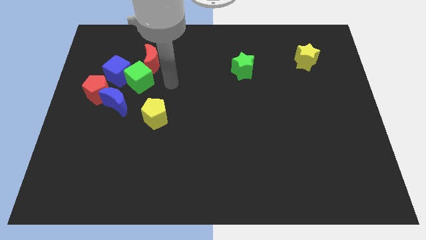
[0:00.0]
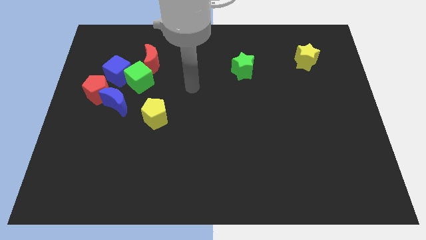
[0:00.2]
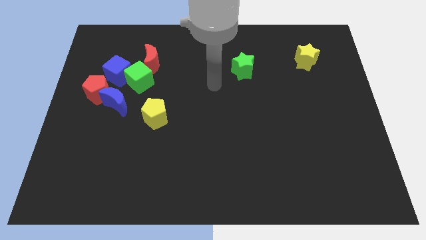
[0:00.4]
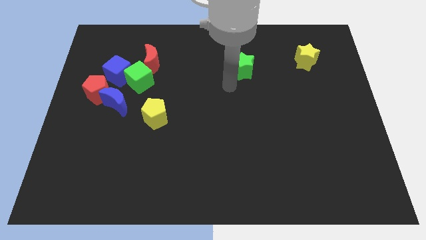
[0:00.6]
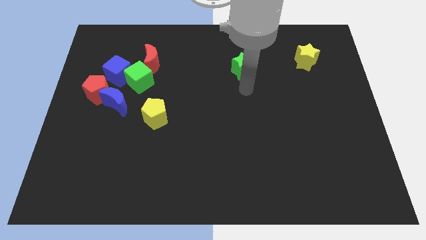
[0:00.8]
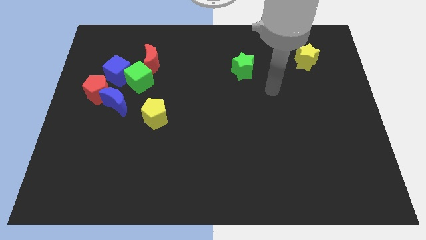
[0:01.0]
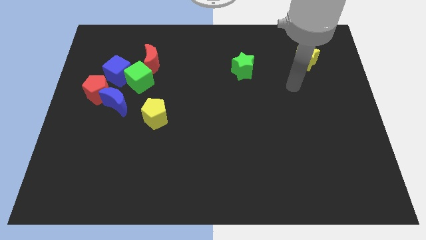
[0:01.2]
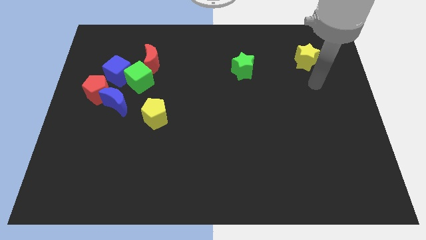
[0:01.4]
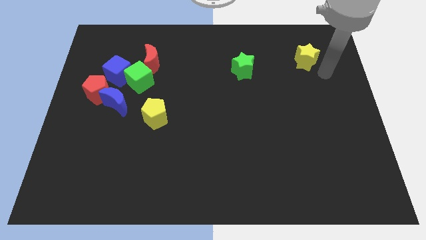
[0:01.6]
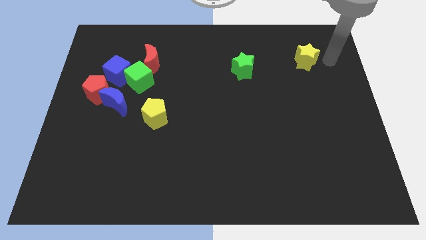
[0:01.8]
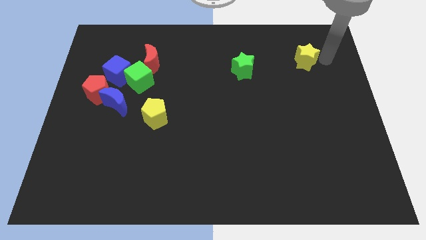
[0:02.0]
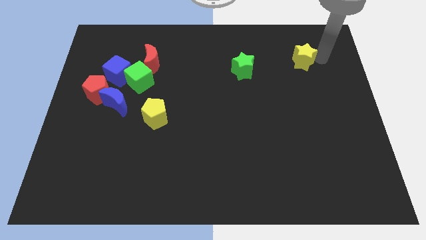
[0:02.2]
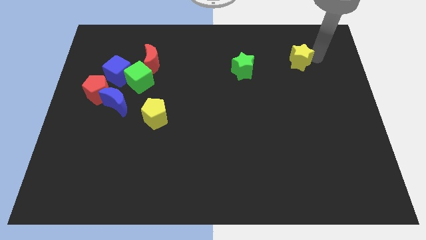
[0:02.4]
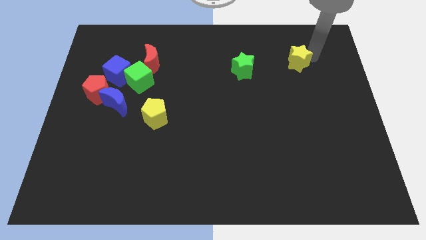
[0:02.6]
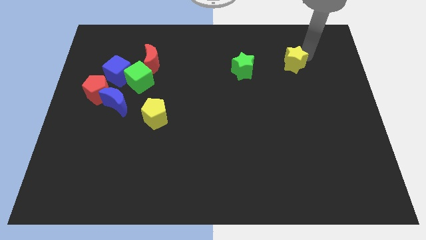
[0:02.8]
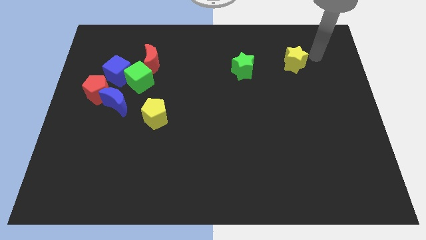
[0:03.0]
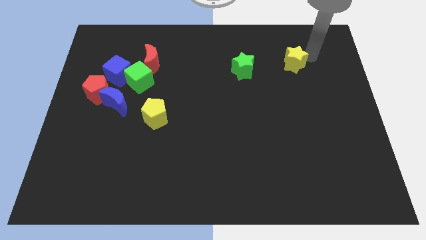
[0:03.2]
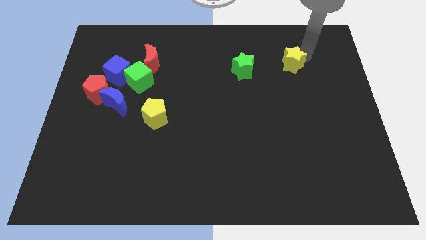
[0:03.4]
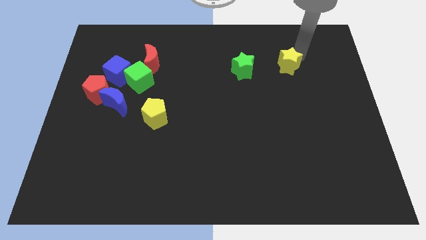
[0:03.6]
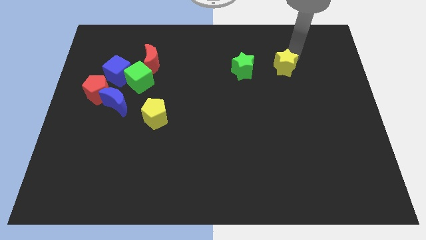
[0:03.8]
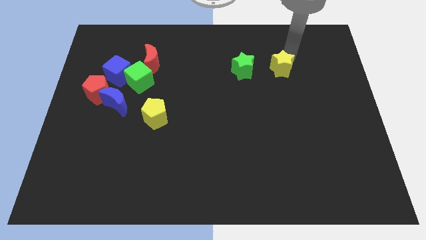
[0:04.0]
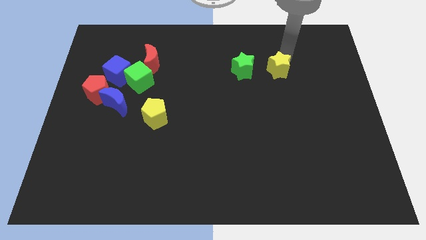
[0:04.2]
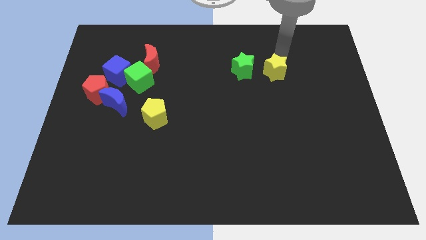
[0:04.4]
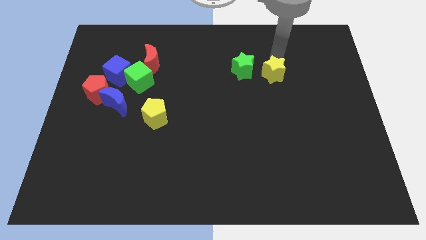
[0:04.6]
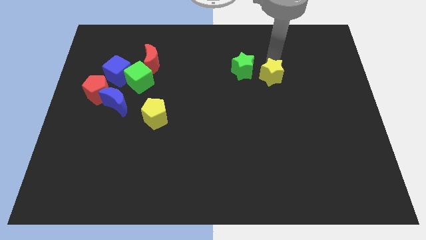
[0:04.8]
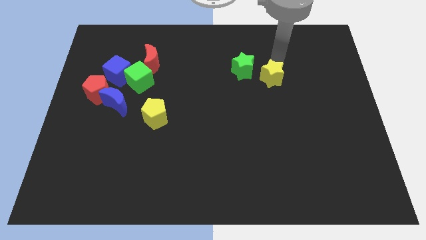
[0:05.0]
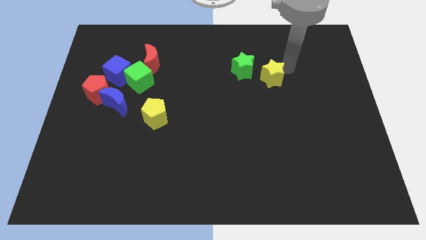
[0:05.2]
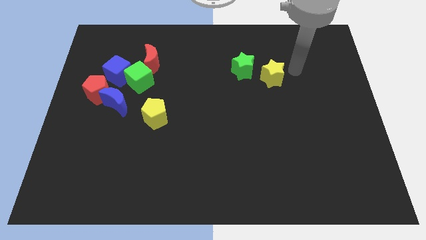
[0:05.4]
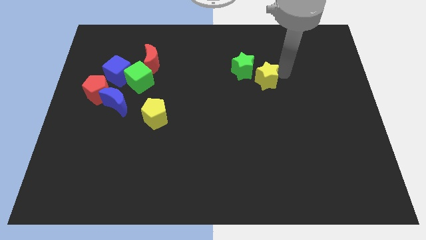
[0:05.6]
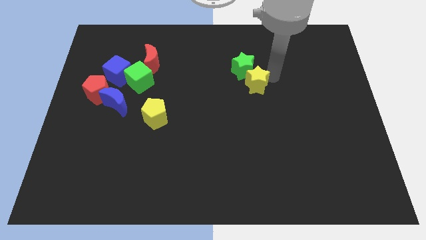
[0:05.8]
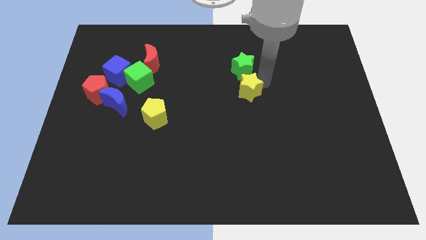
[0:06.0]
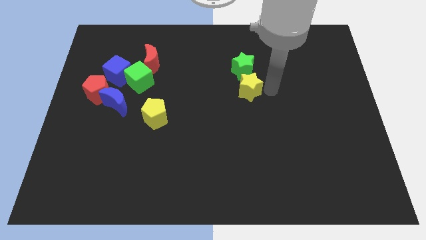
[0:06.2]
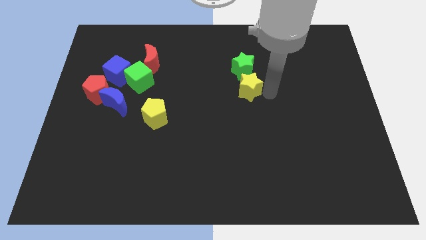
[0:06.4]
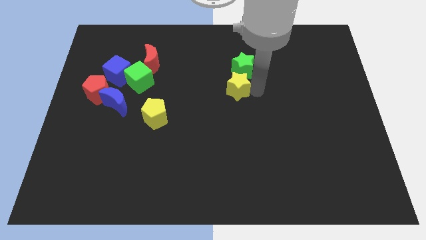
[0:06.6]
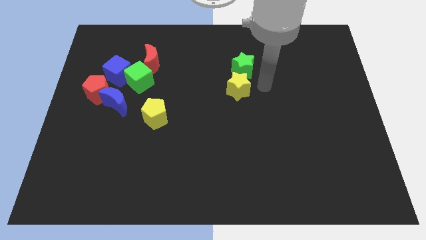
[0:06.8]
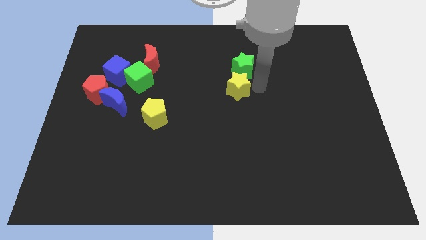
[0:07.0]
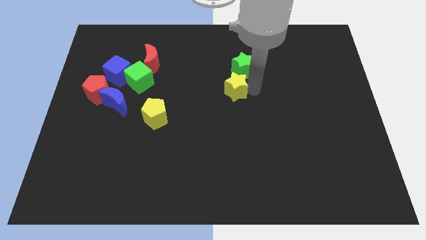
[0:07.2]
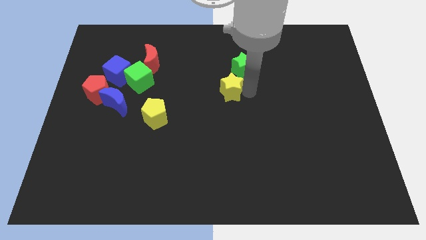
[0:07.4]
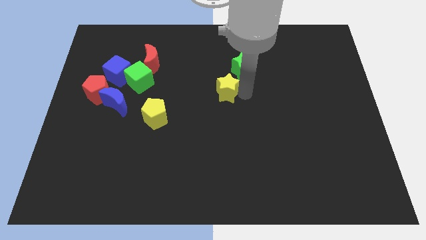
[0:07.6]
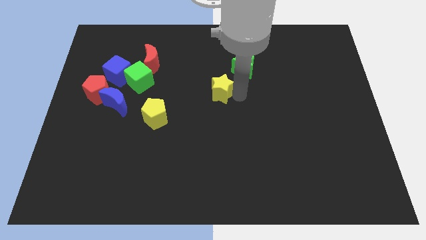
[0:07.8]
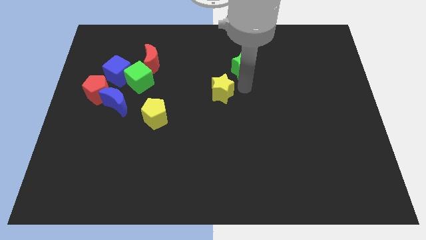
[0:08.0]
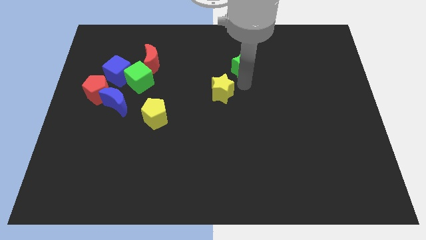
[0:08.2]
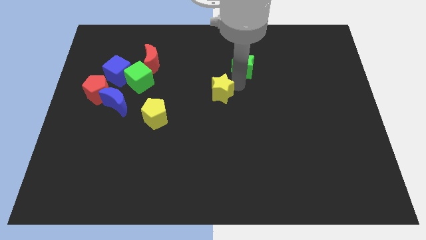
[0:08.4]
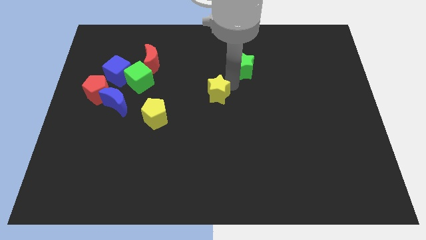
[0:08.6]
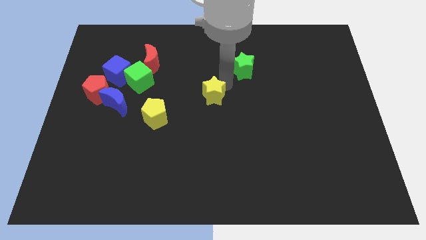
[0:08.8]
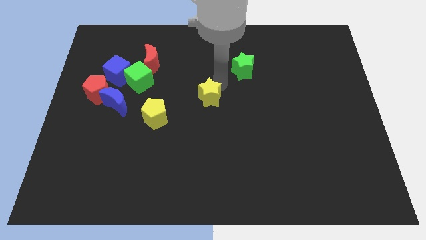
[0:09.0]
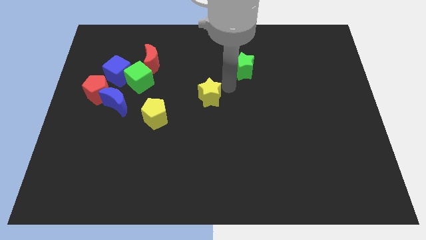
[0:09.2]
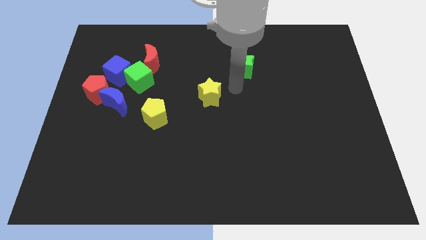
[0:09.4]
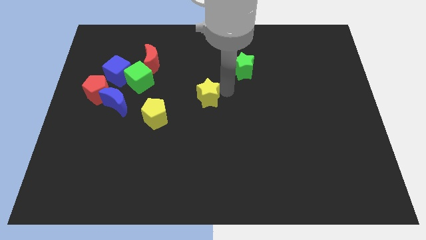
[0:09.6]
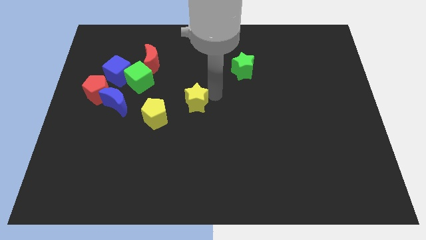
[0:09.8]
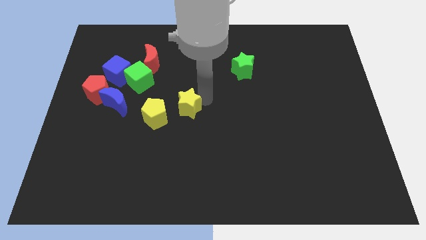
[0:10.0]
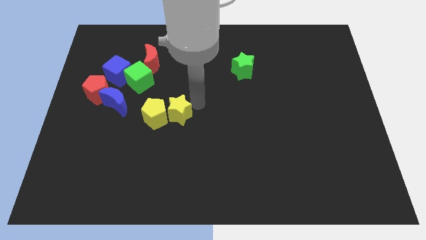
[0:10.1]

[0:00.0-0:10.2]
put the yellow star to the yellow pentagon

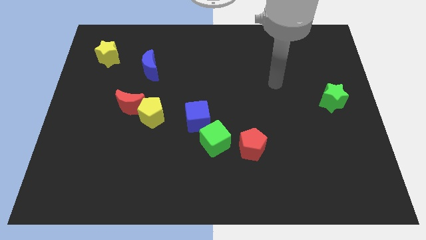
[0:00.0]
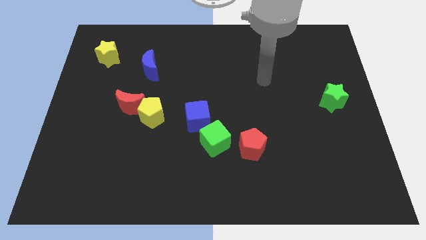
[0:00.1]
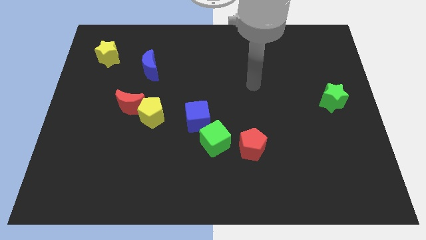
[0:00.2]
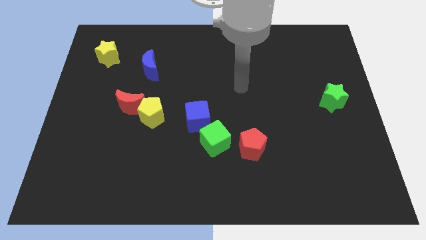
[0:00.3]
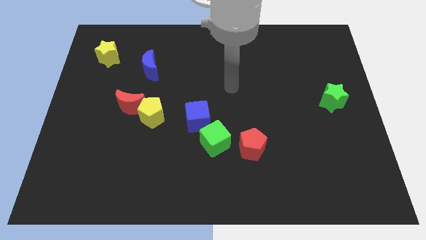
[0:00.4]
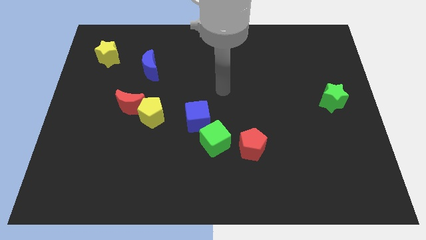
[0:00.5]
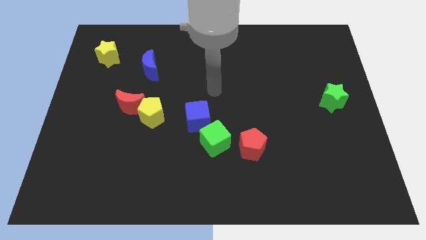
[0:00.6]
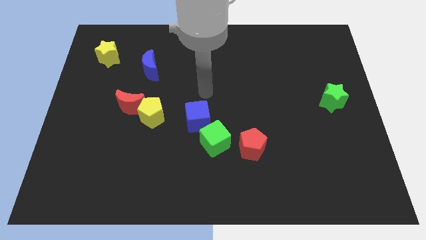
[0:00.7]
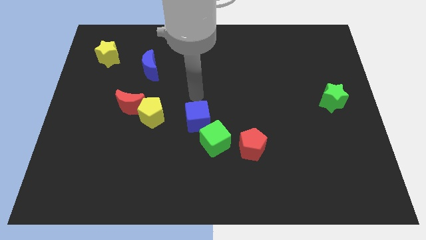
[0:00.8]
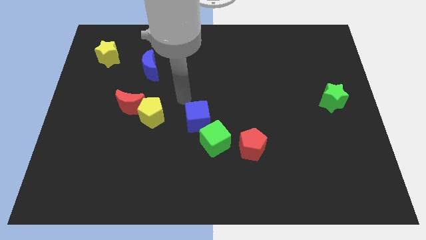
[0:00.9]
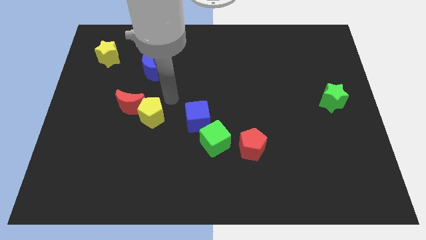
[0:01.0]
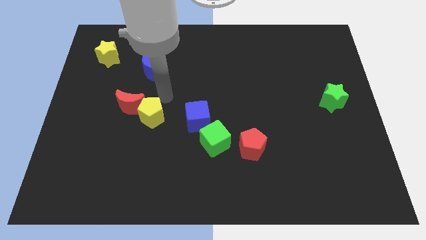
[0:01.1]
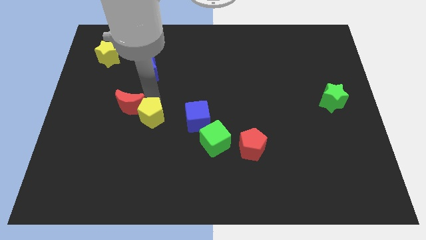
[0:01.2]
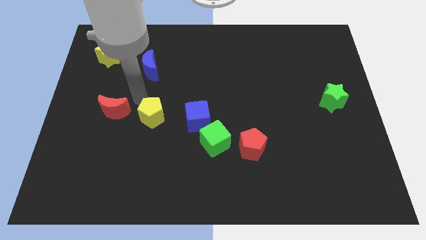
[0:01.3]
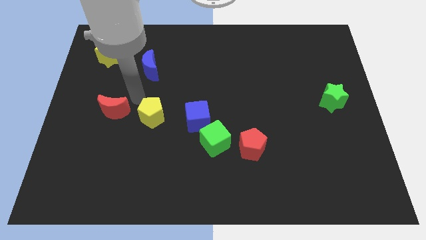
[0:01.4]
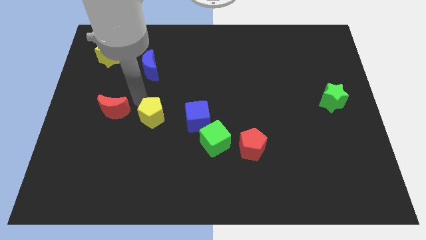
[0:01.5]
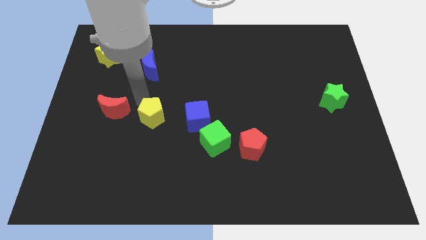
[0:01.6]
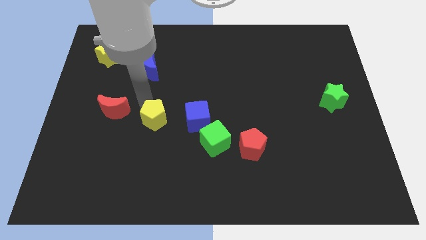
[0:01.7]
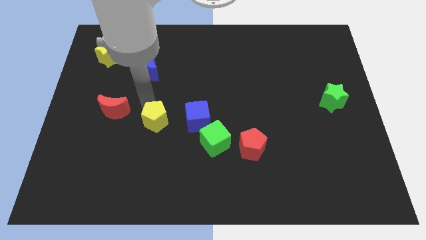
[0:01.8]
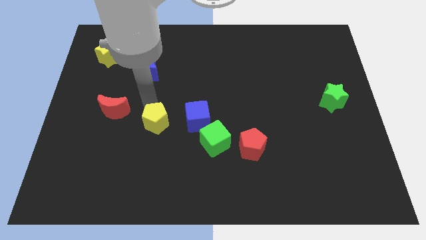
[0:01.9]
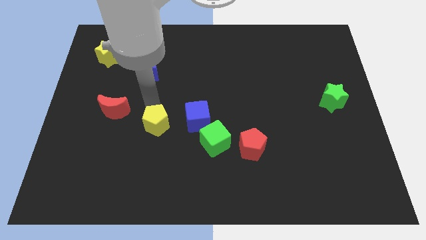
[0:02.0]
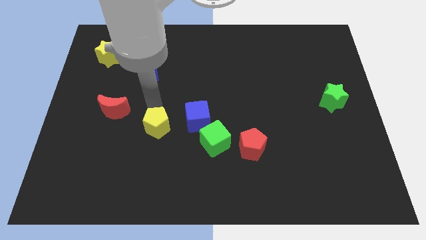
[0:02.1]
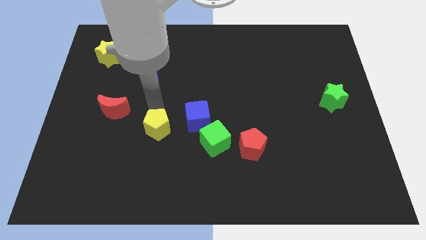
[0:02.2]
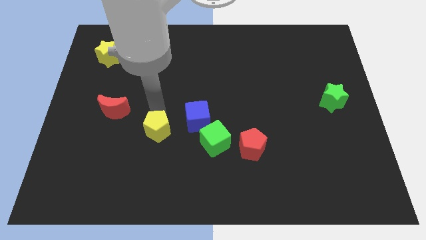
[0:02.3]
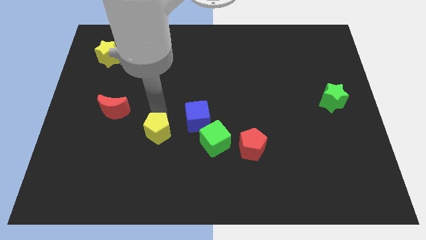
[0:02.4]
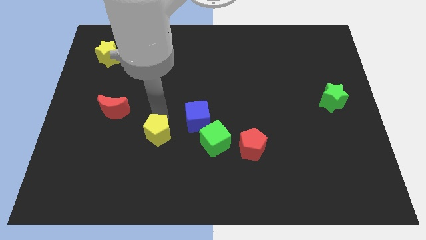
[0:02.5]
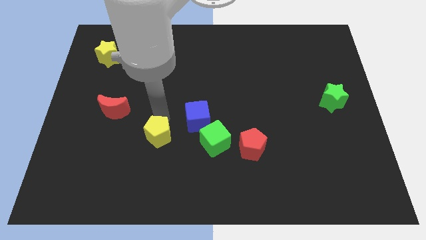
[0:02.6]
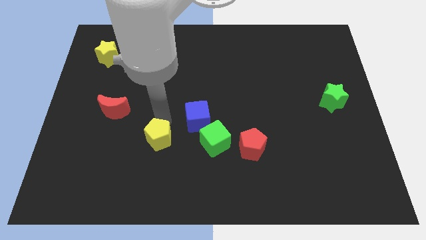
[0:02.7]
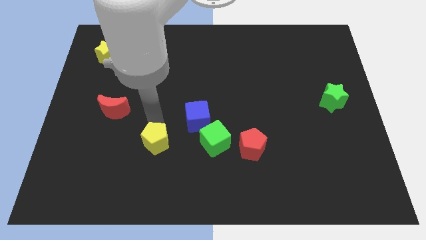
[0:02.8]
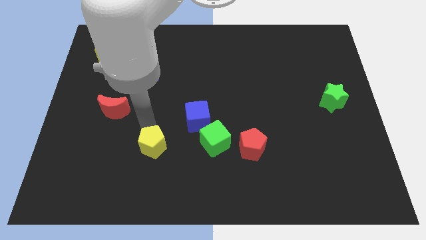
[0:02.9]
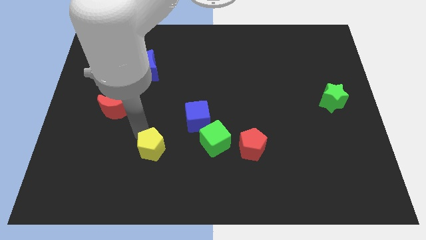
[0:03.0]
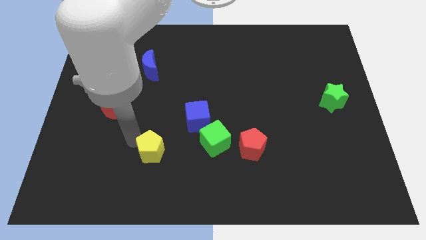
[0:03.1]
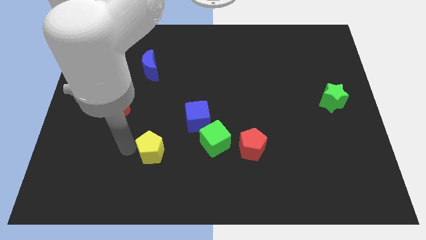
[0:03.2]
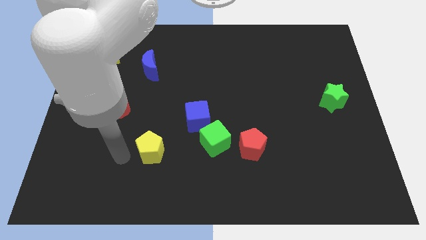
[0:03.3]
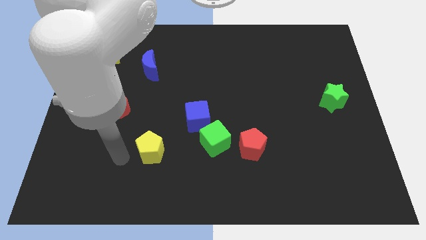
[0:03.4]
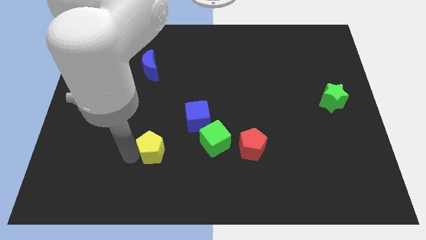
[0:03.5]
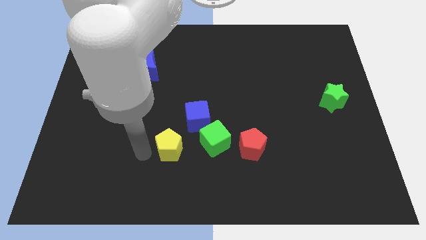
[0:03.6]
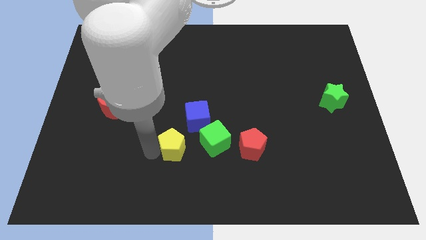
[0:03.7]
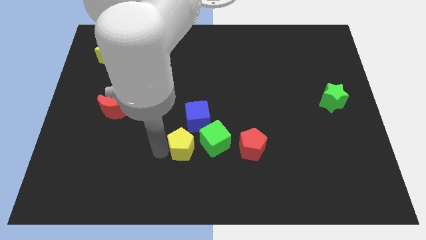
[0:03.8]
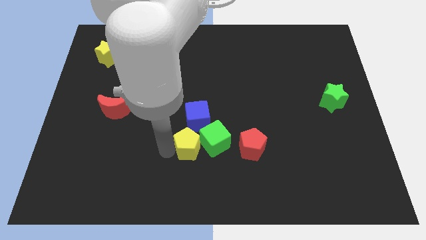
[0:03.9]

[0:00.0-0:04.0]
move the yellow pentagon next to the green cube
